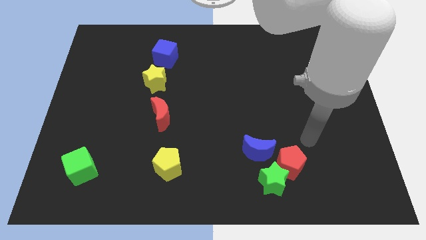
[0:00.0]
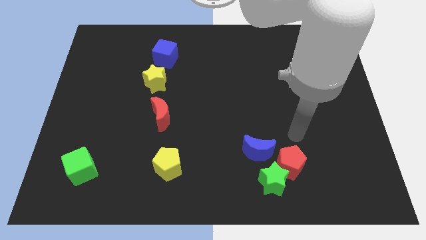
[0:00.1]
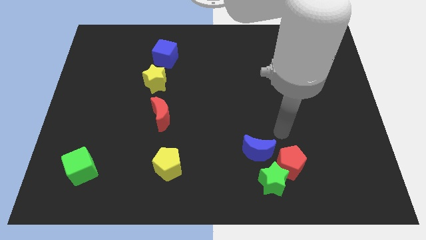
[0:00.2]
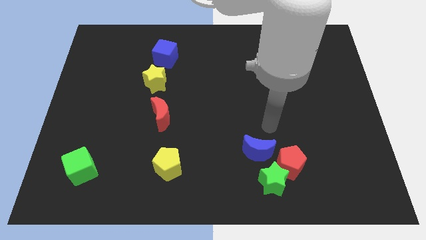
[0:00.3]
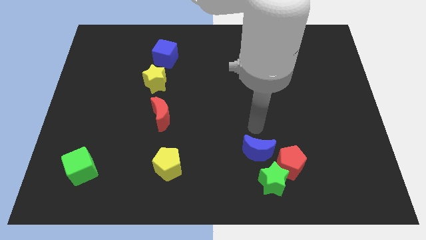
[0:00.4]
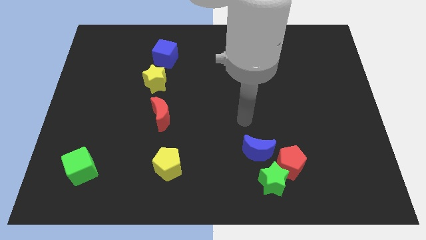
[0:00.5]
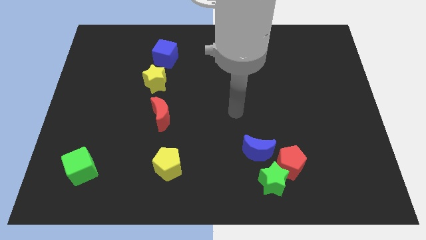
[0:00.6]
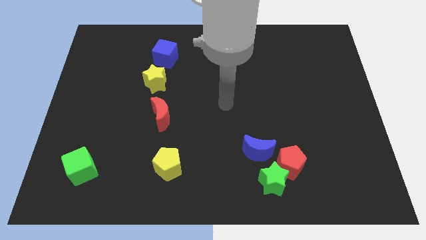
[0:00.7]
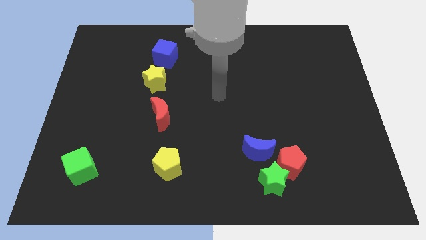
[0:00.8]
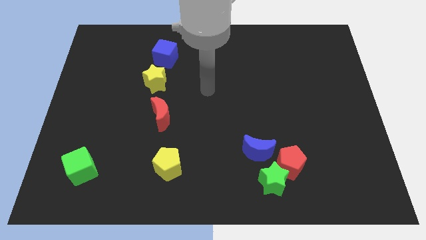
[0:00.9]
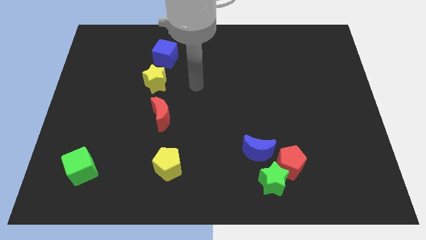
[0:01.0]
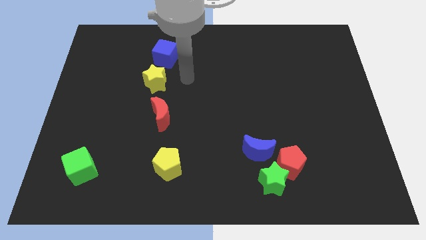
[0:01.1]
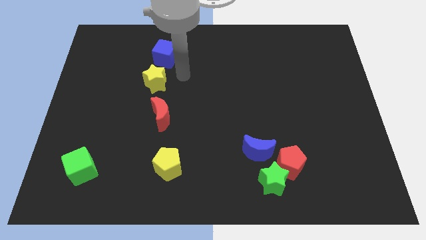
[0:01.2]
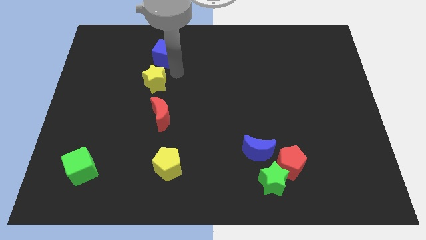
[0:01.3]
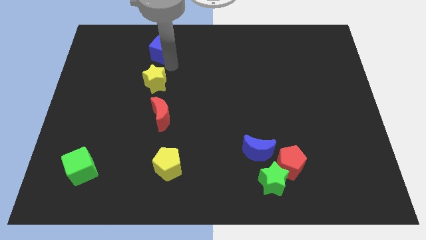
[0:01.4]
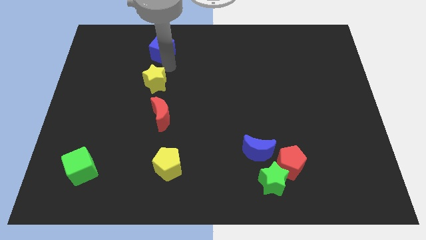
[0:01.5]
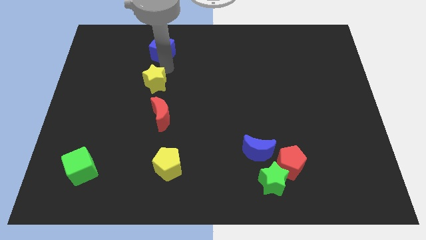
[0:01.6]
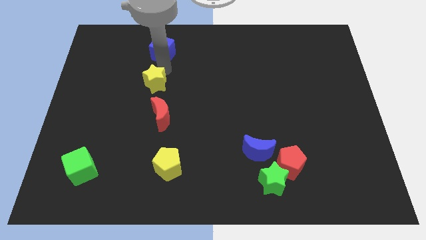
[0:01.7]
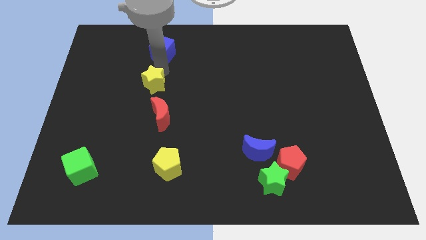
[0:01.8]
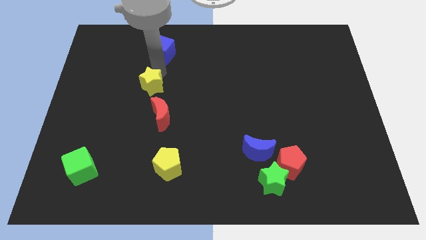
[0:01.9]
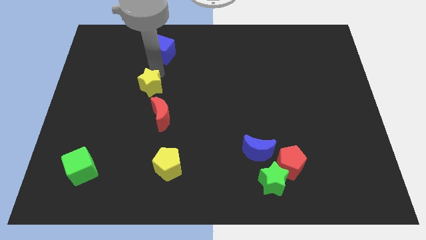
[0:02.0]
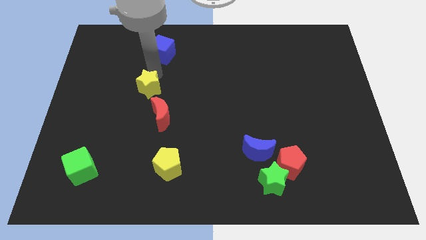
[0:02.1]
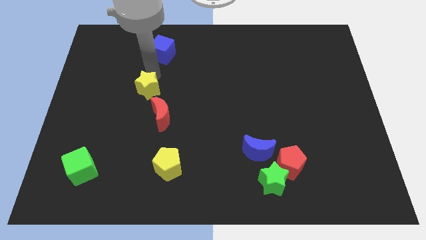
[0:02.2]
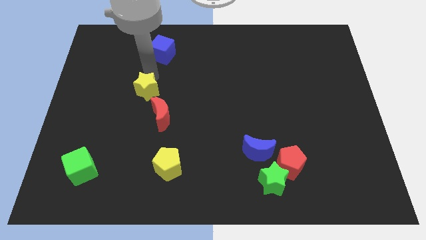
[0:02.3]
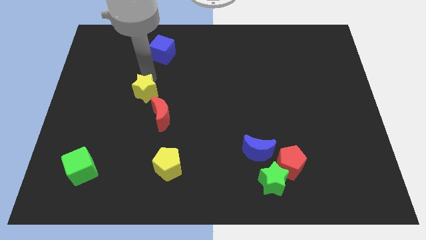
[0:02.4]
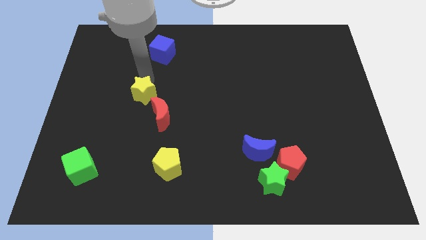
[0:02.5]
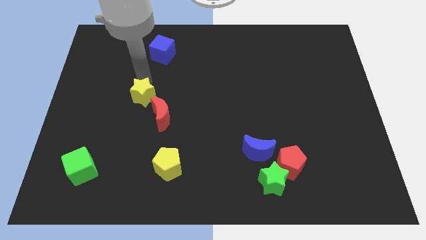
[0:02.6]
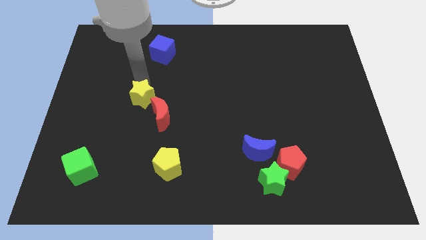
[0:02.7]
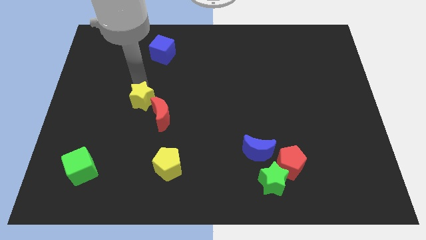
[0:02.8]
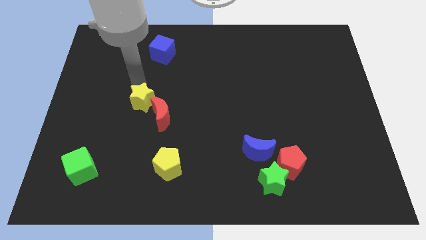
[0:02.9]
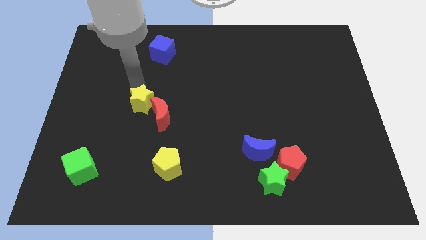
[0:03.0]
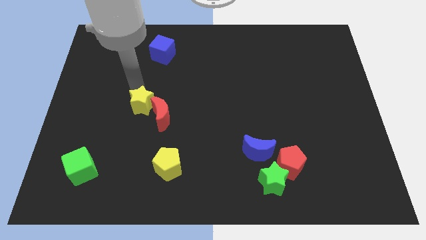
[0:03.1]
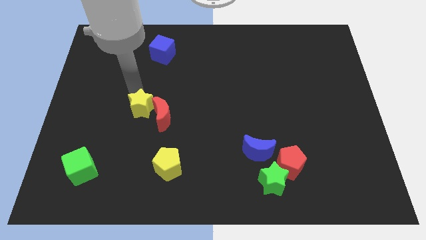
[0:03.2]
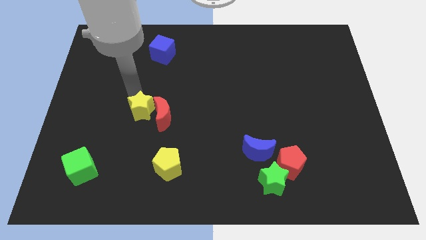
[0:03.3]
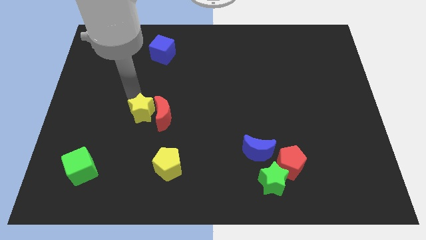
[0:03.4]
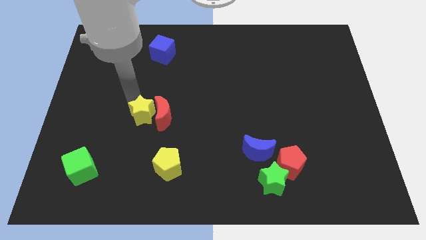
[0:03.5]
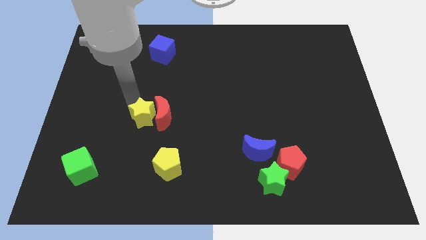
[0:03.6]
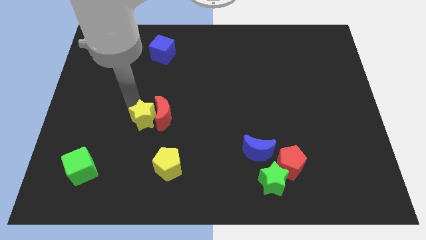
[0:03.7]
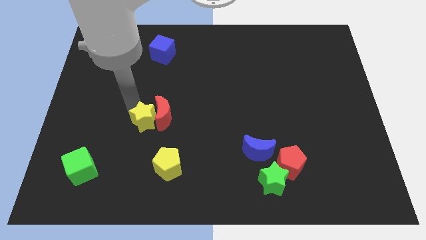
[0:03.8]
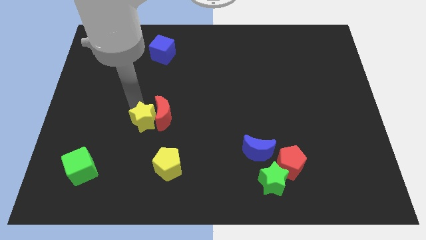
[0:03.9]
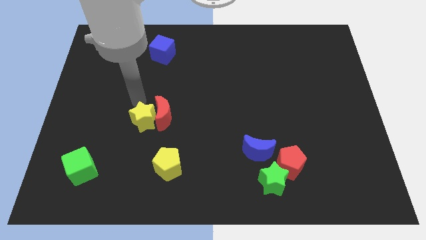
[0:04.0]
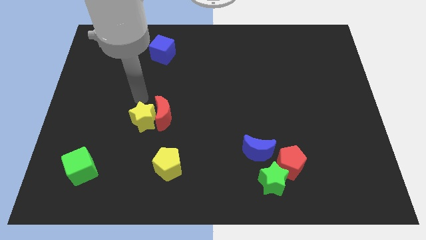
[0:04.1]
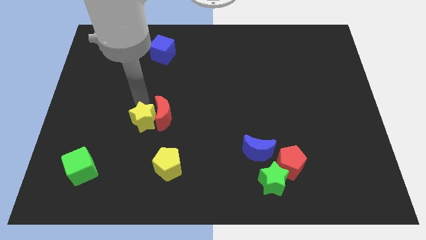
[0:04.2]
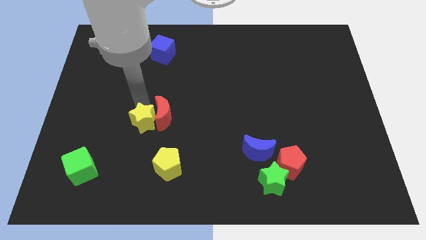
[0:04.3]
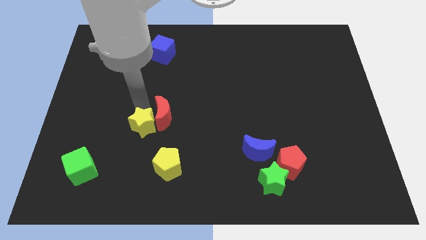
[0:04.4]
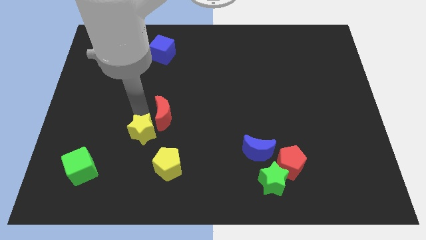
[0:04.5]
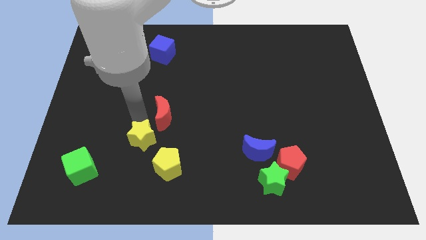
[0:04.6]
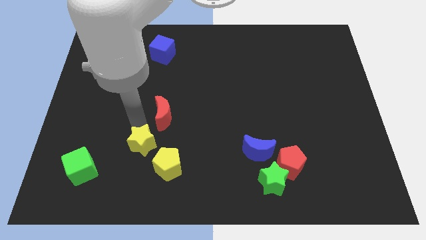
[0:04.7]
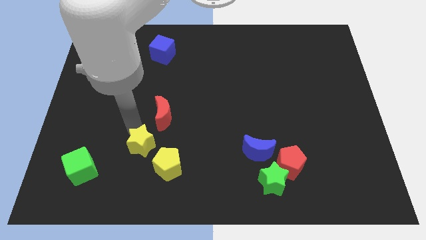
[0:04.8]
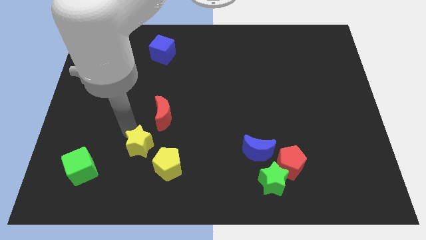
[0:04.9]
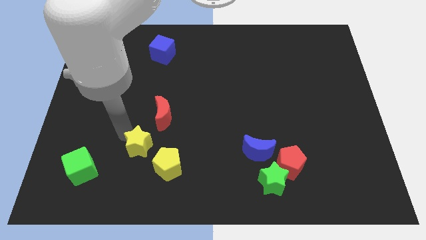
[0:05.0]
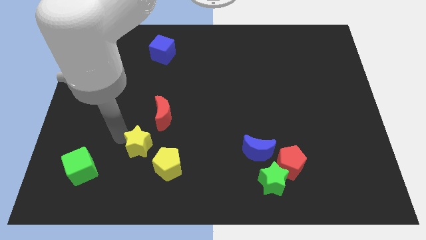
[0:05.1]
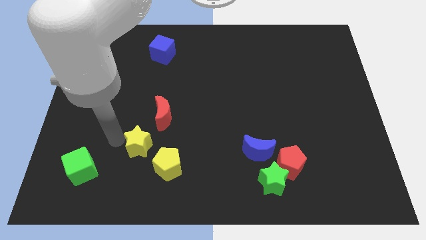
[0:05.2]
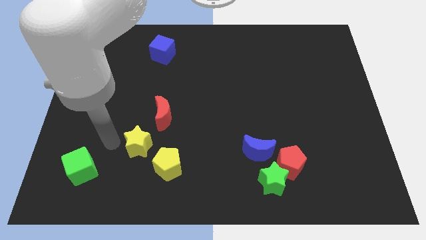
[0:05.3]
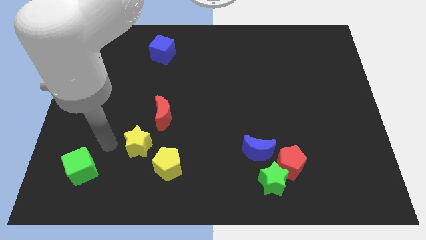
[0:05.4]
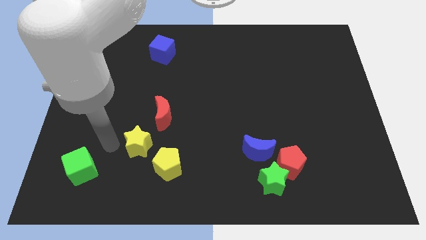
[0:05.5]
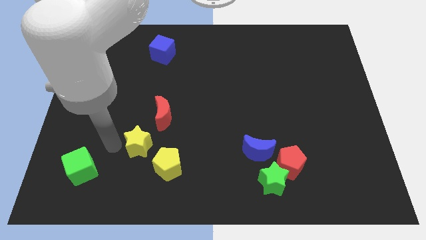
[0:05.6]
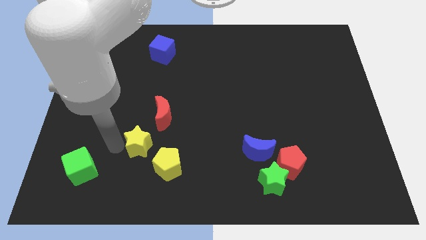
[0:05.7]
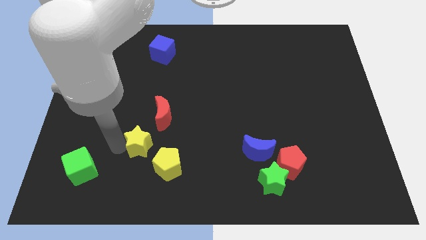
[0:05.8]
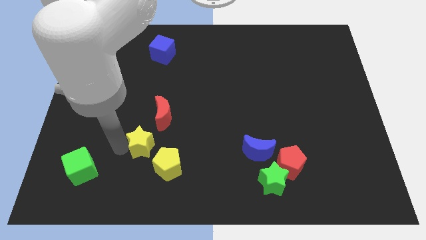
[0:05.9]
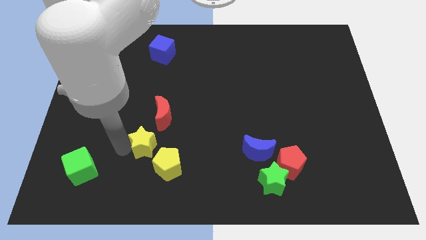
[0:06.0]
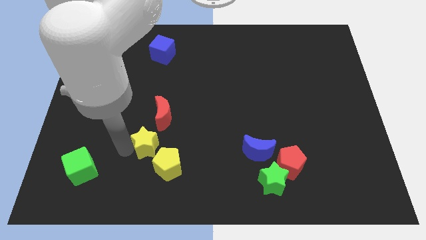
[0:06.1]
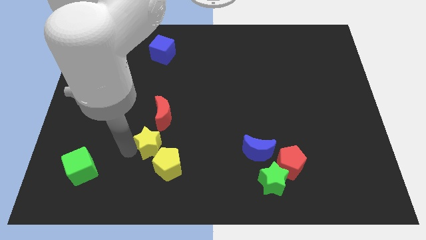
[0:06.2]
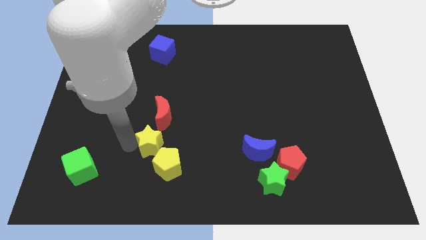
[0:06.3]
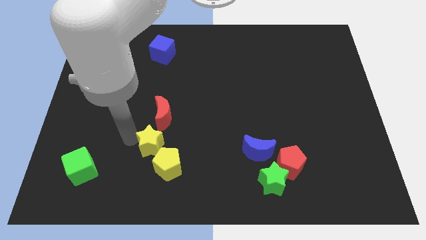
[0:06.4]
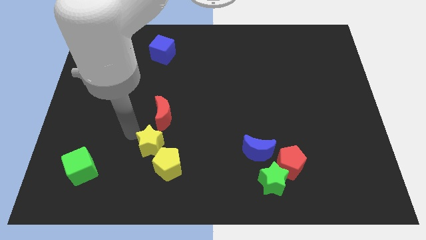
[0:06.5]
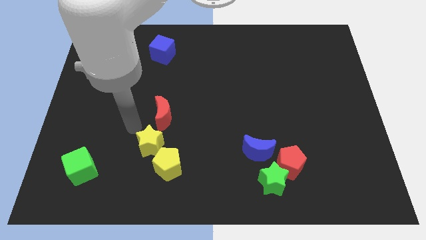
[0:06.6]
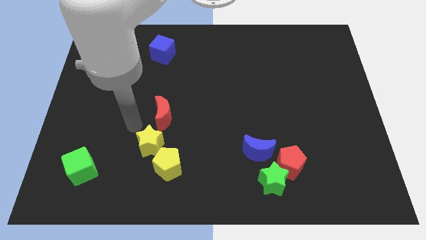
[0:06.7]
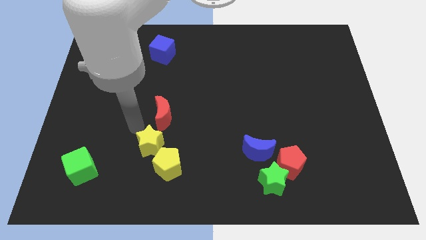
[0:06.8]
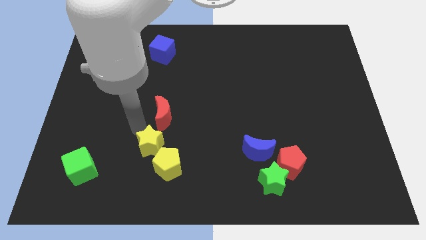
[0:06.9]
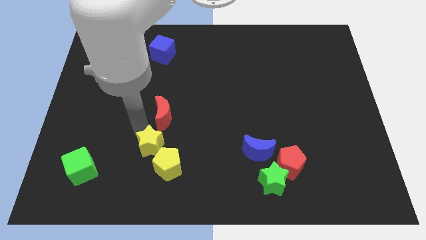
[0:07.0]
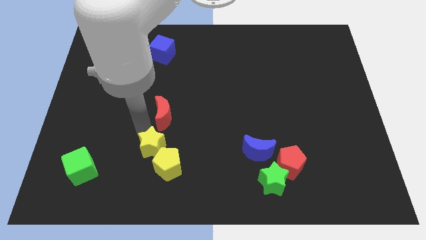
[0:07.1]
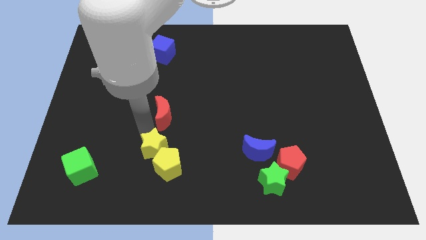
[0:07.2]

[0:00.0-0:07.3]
put the yellow star towards the yellow pentagon

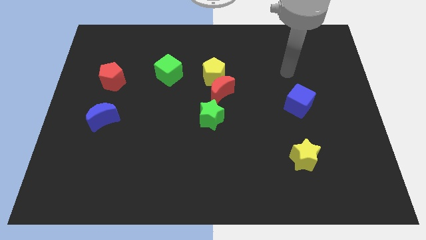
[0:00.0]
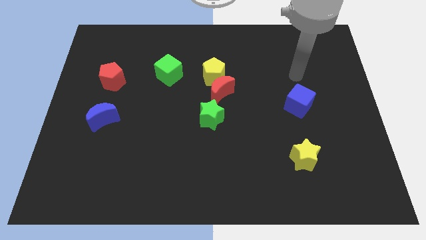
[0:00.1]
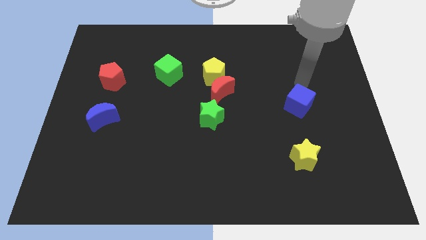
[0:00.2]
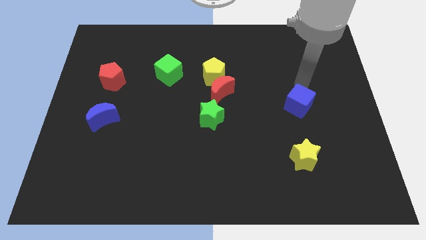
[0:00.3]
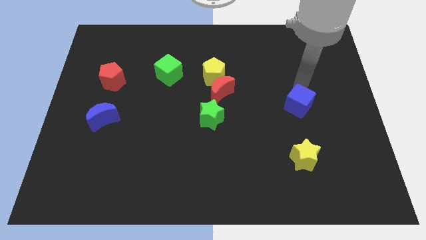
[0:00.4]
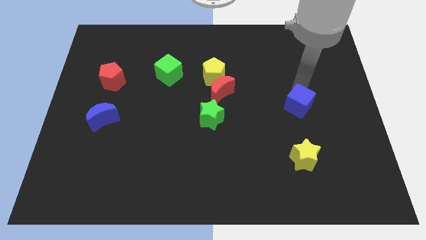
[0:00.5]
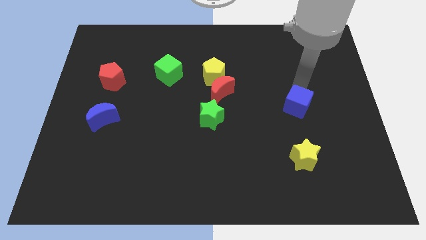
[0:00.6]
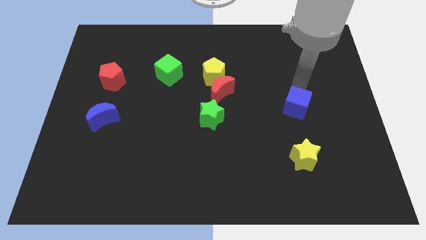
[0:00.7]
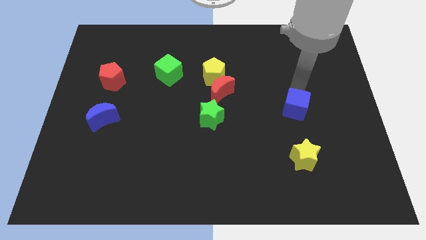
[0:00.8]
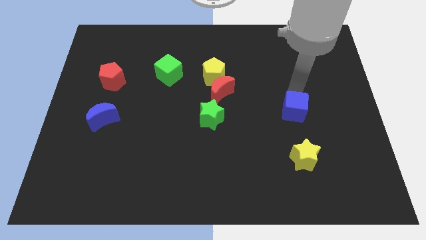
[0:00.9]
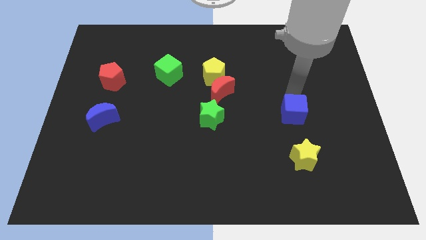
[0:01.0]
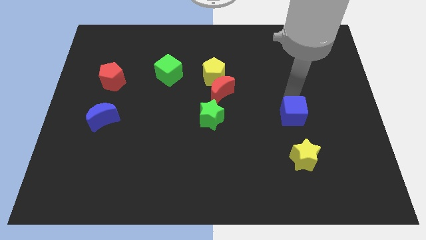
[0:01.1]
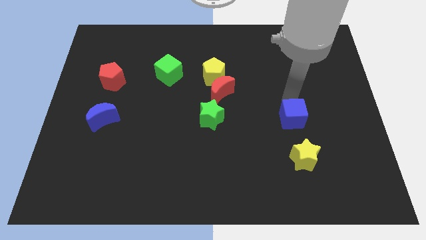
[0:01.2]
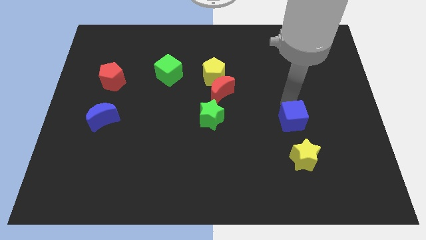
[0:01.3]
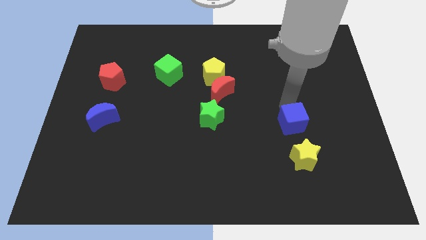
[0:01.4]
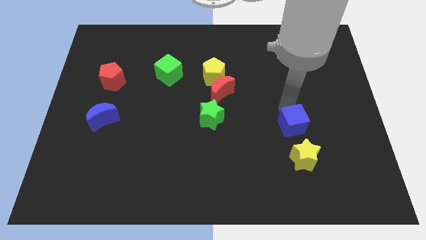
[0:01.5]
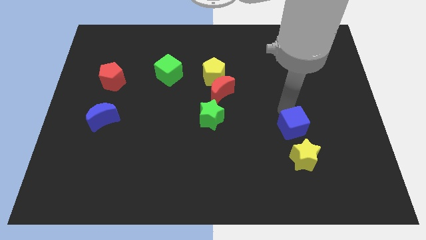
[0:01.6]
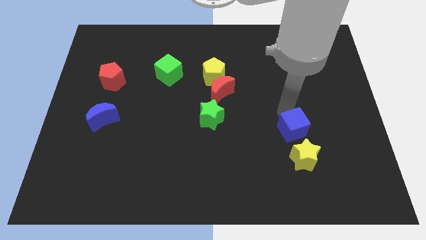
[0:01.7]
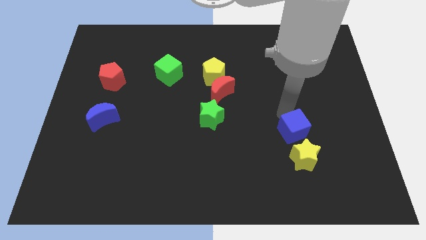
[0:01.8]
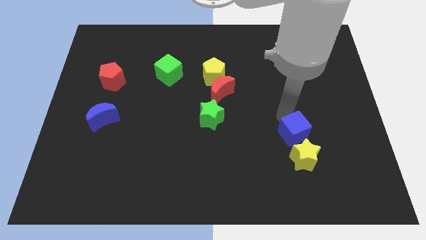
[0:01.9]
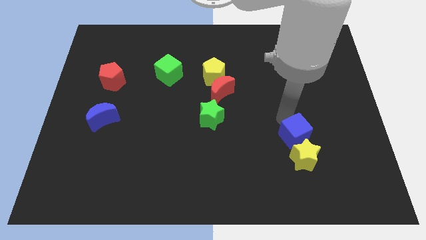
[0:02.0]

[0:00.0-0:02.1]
push the blue cube towards the yellow star
